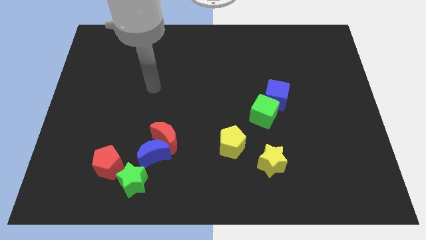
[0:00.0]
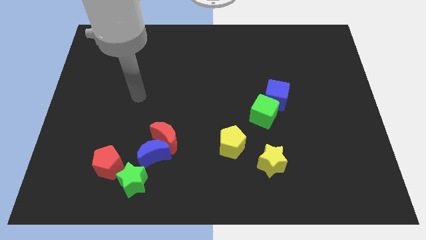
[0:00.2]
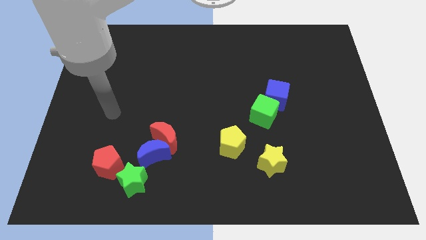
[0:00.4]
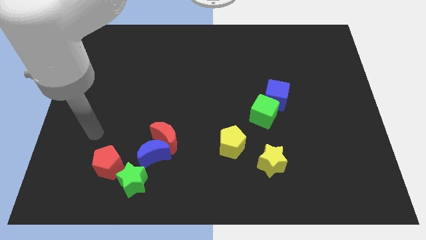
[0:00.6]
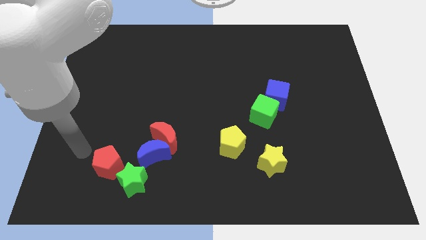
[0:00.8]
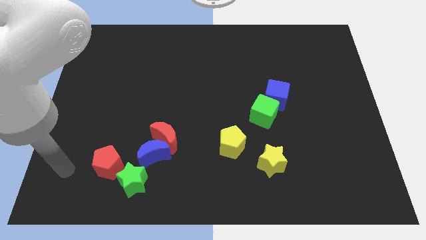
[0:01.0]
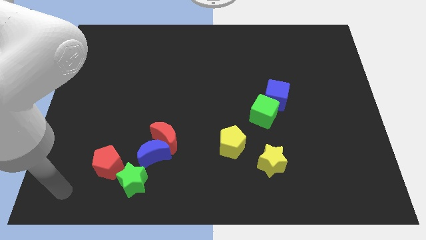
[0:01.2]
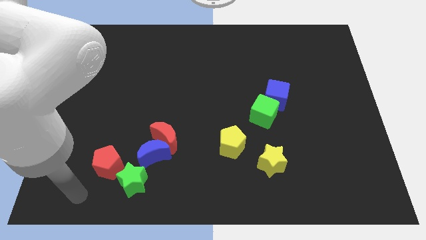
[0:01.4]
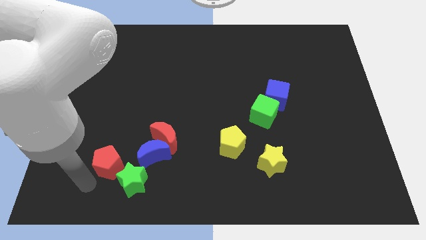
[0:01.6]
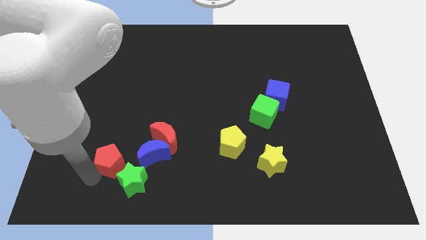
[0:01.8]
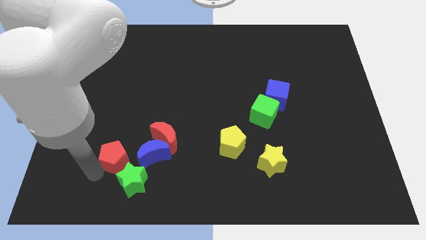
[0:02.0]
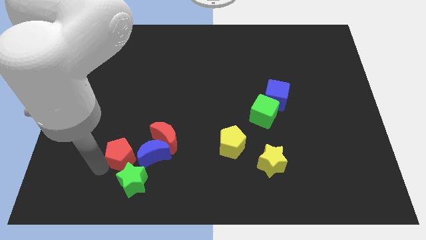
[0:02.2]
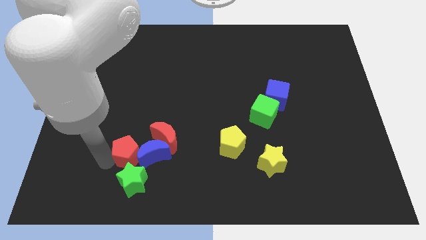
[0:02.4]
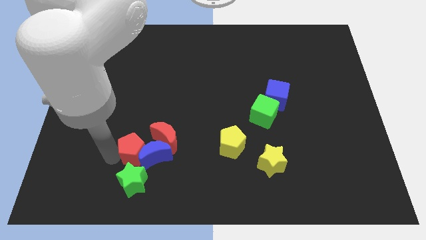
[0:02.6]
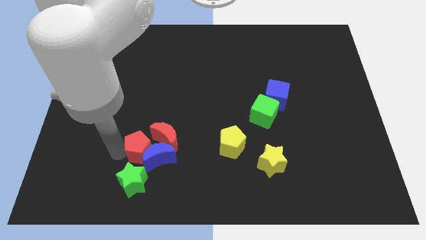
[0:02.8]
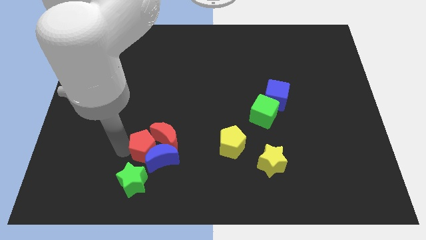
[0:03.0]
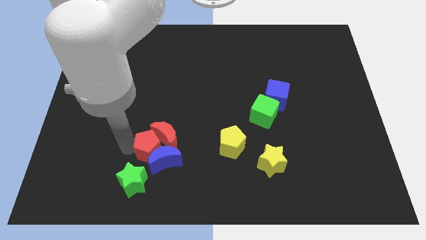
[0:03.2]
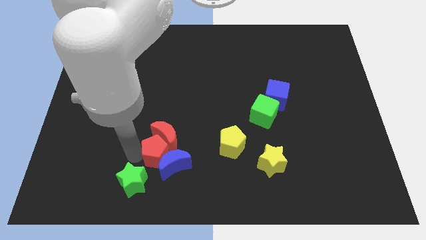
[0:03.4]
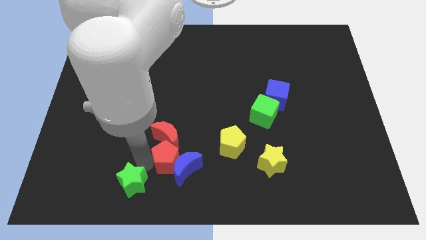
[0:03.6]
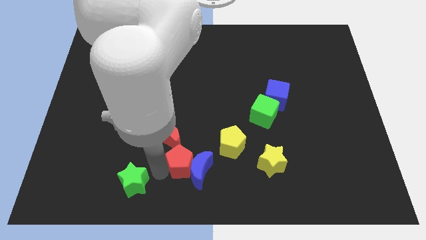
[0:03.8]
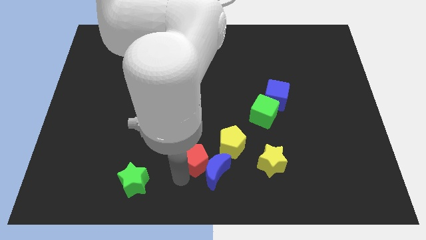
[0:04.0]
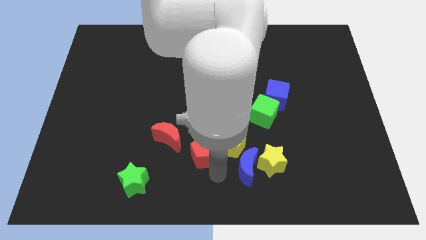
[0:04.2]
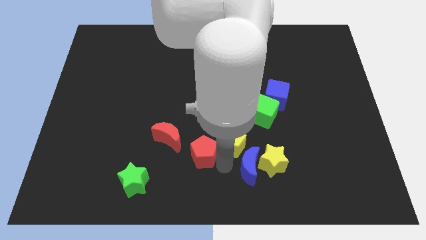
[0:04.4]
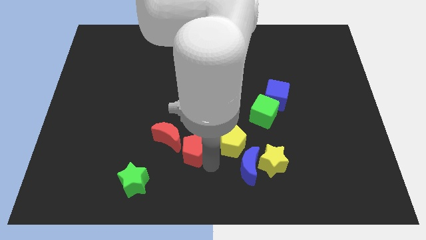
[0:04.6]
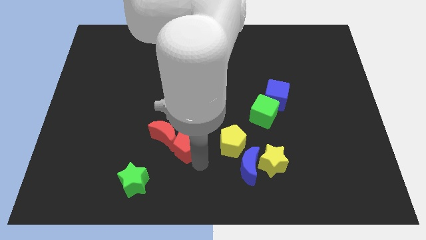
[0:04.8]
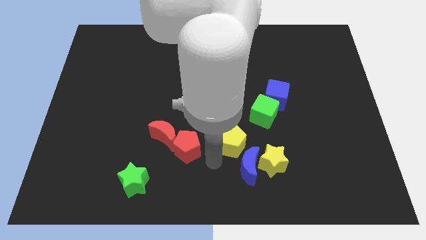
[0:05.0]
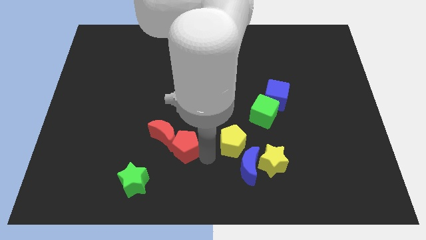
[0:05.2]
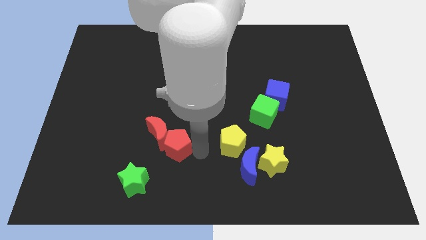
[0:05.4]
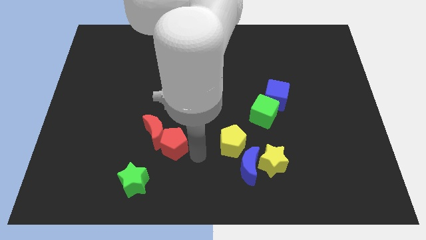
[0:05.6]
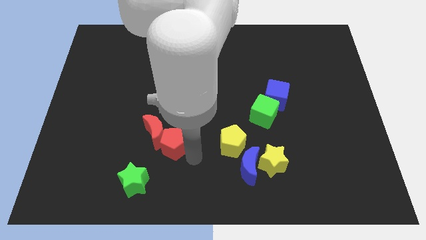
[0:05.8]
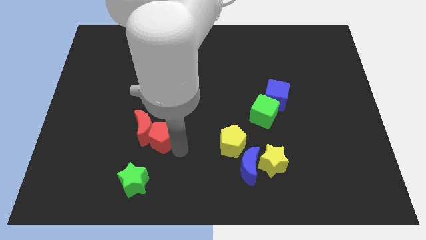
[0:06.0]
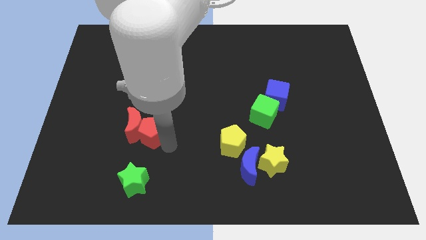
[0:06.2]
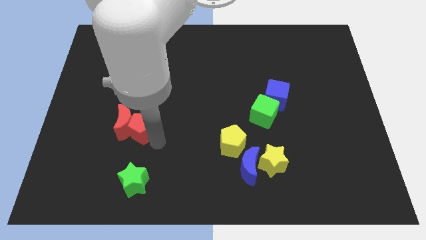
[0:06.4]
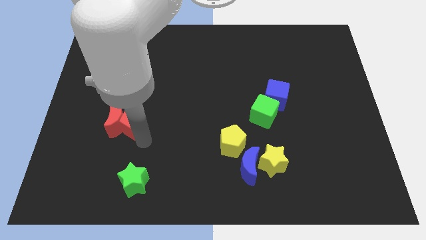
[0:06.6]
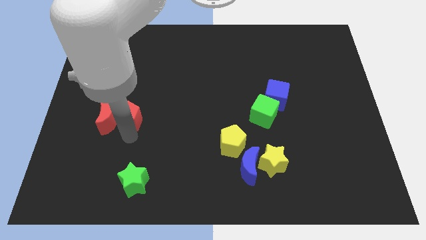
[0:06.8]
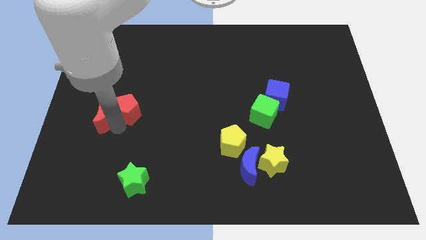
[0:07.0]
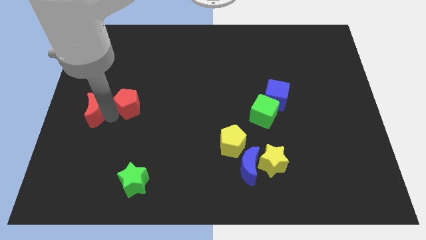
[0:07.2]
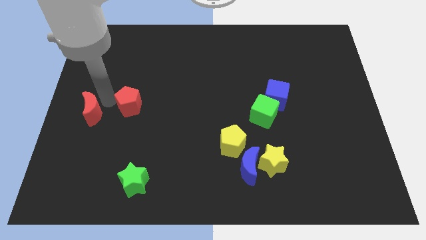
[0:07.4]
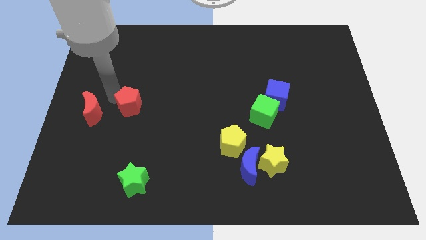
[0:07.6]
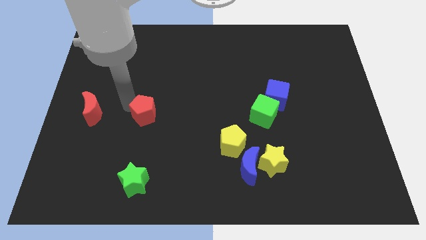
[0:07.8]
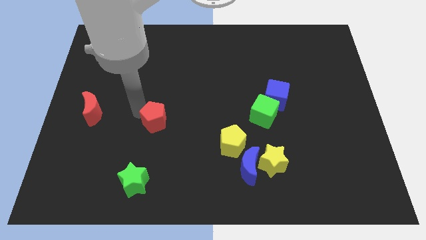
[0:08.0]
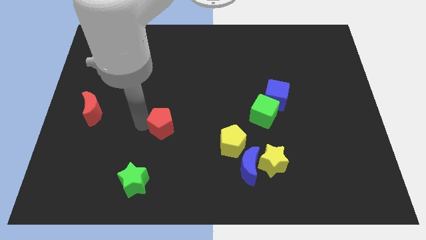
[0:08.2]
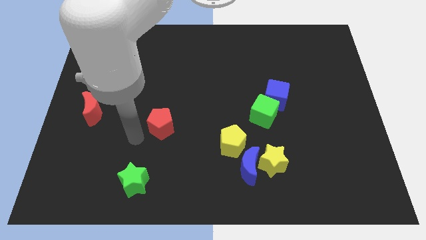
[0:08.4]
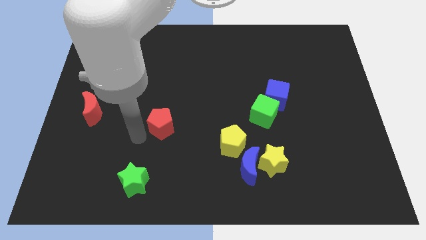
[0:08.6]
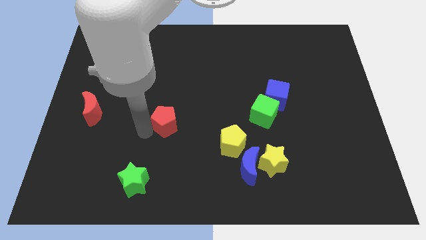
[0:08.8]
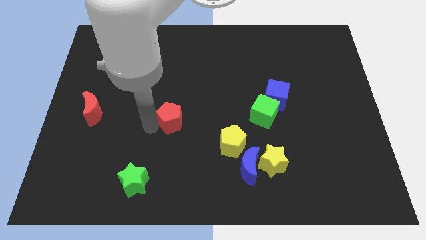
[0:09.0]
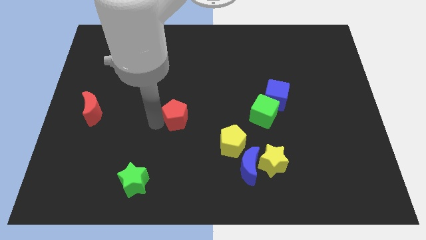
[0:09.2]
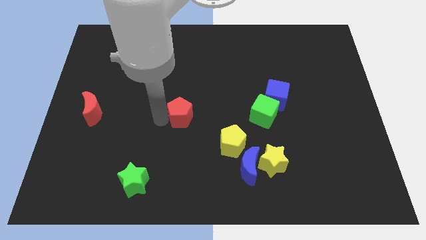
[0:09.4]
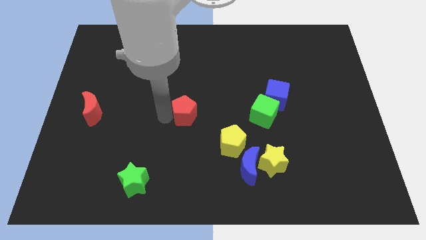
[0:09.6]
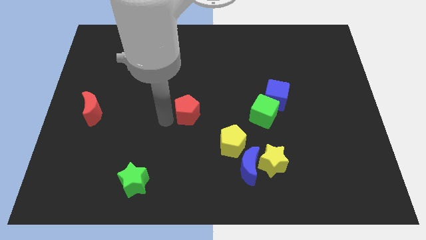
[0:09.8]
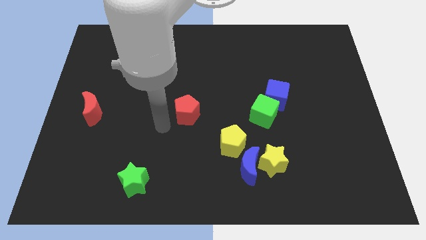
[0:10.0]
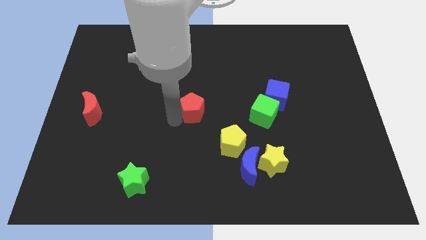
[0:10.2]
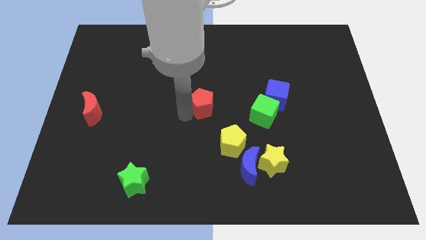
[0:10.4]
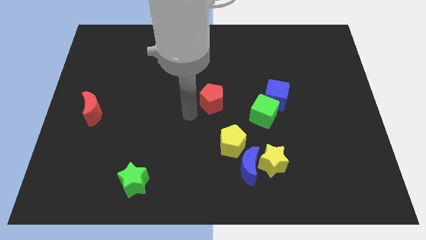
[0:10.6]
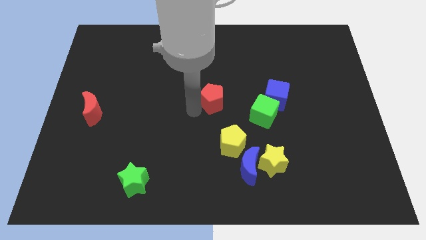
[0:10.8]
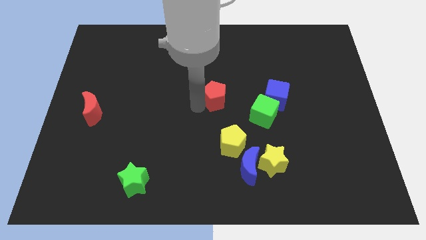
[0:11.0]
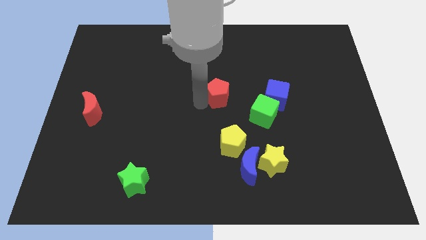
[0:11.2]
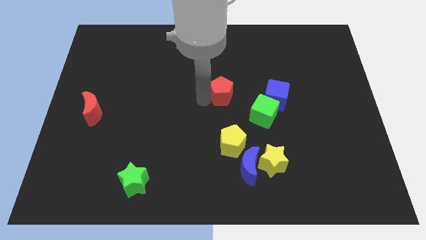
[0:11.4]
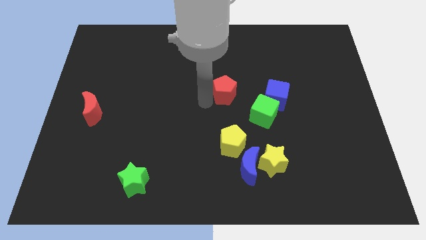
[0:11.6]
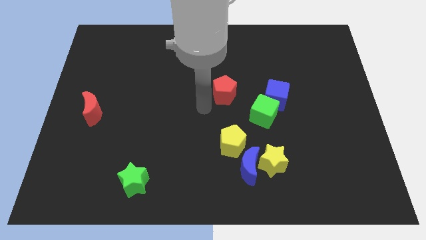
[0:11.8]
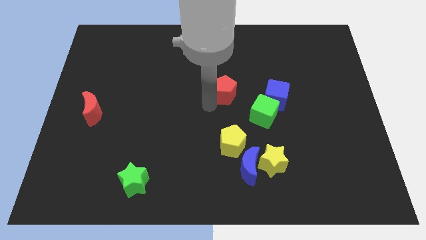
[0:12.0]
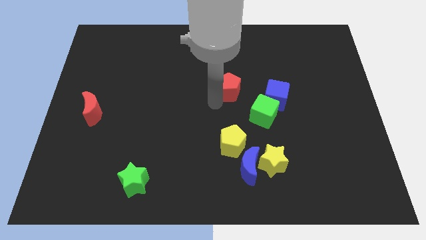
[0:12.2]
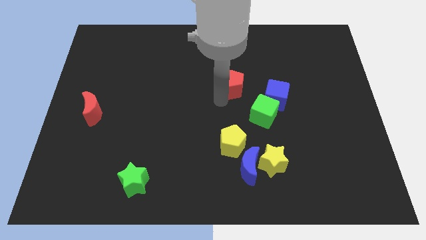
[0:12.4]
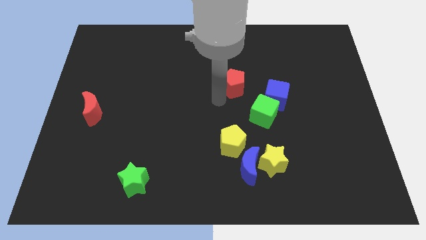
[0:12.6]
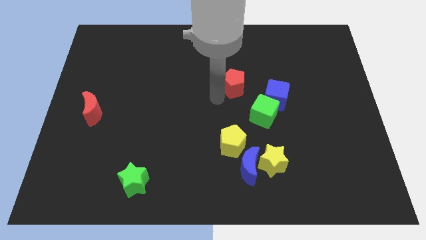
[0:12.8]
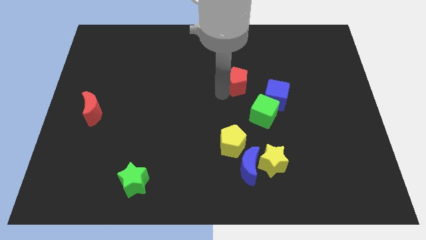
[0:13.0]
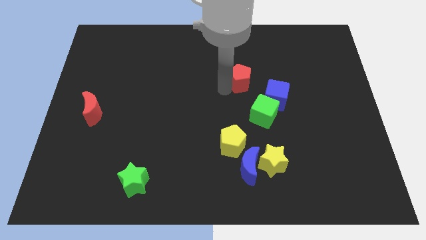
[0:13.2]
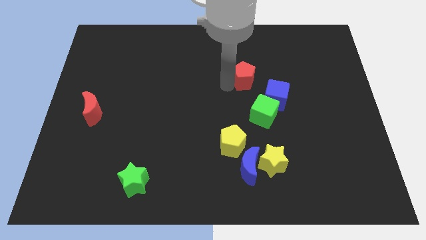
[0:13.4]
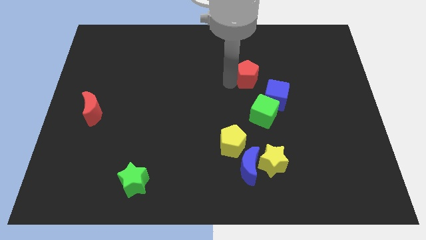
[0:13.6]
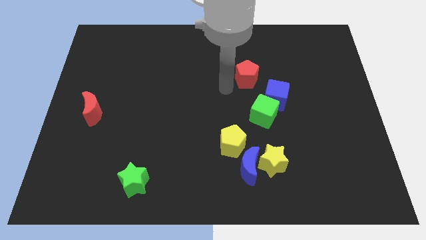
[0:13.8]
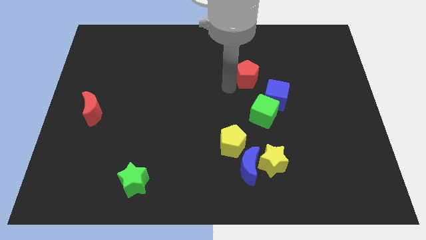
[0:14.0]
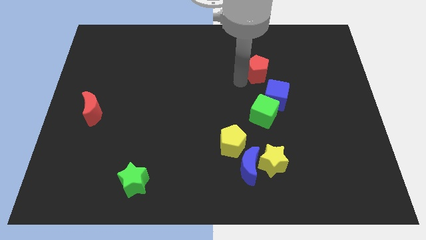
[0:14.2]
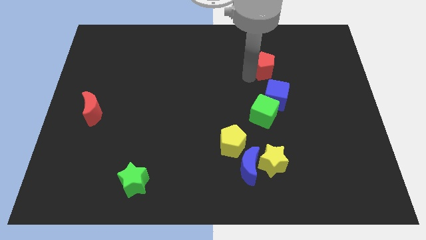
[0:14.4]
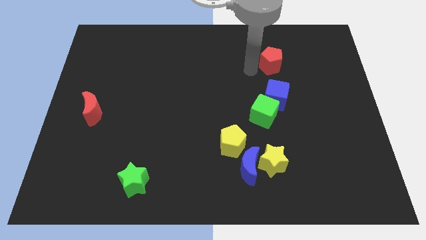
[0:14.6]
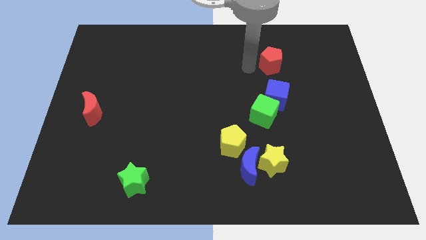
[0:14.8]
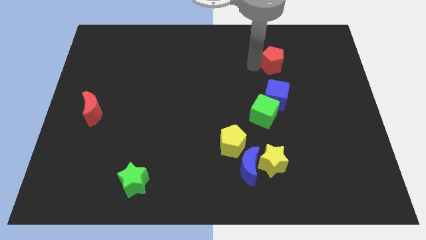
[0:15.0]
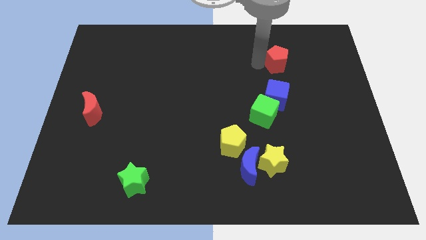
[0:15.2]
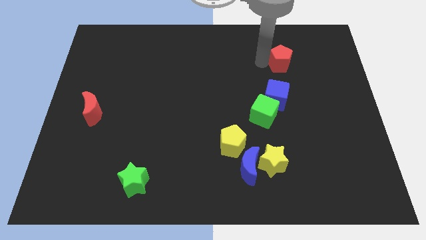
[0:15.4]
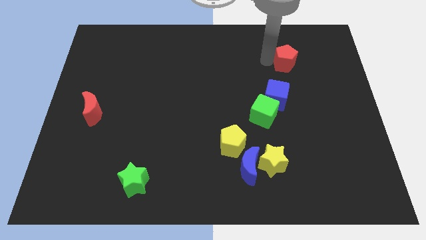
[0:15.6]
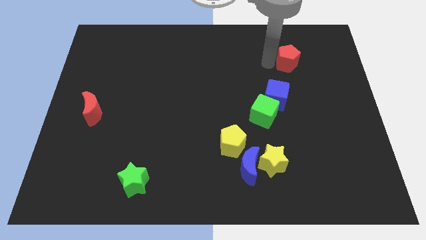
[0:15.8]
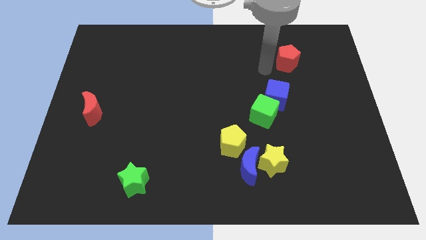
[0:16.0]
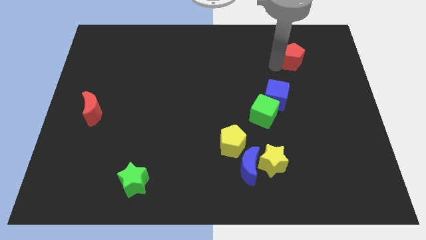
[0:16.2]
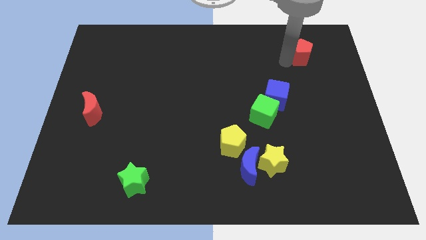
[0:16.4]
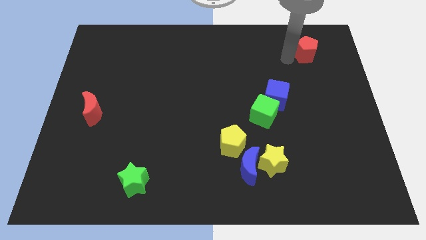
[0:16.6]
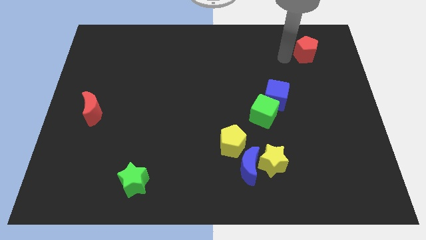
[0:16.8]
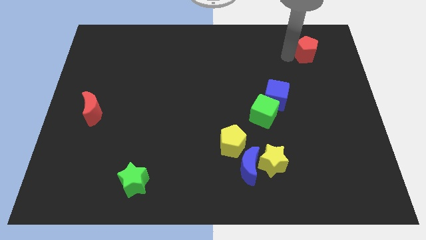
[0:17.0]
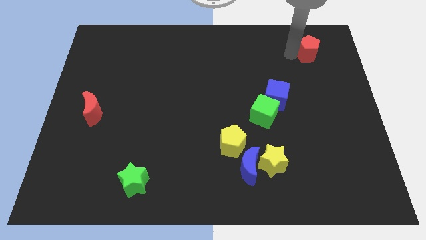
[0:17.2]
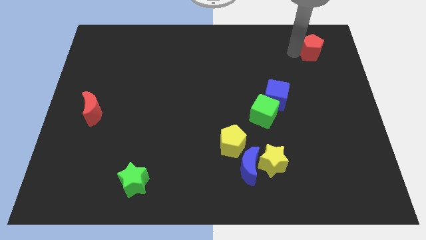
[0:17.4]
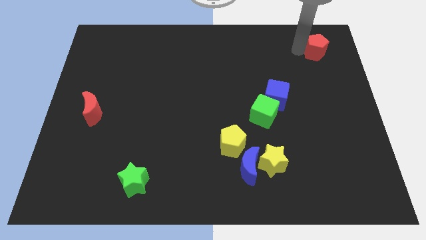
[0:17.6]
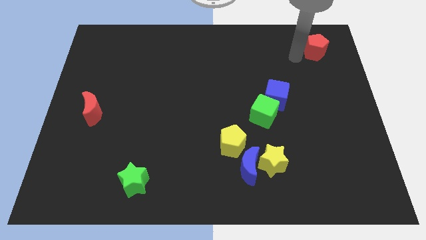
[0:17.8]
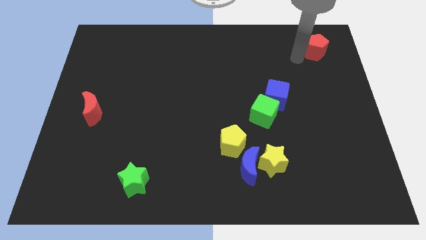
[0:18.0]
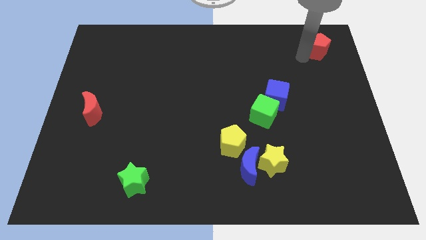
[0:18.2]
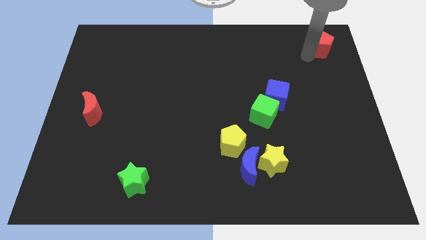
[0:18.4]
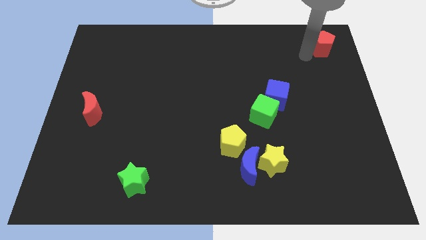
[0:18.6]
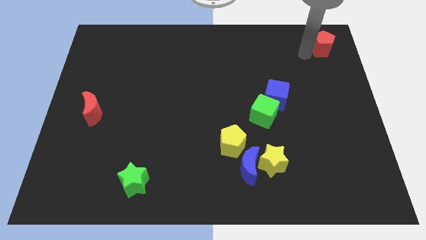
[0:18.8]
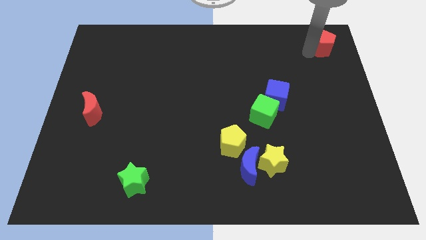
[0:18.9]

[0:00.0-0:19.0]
slide the red pentagon to the top right
